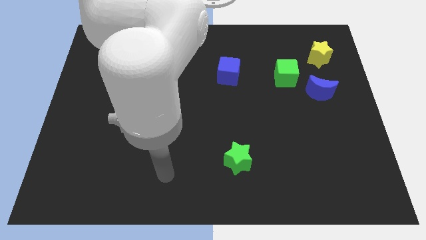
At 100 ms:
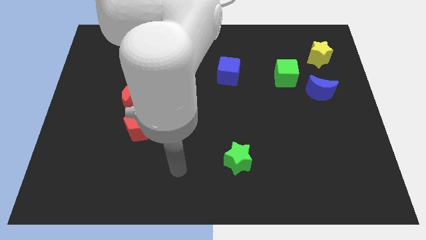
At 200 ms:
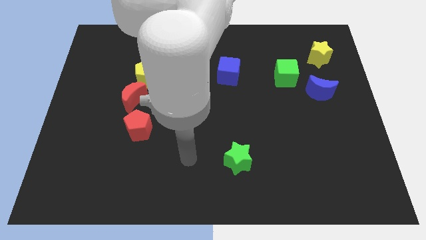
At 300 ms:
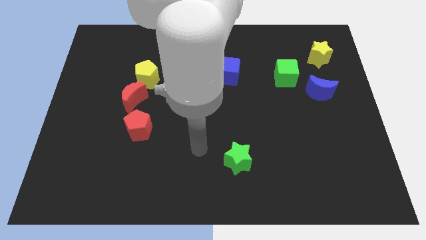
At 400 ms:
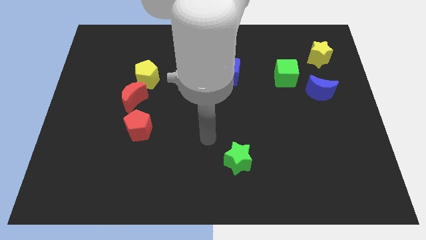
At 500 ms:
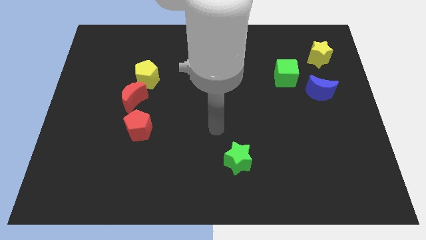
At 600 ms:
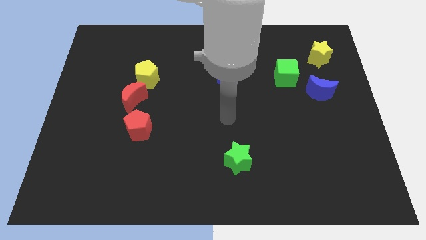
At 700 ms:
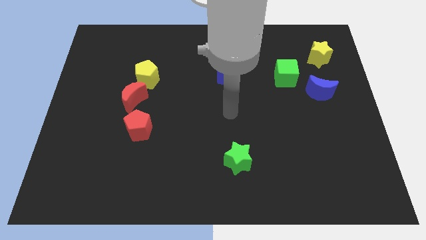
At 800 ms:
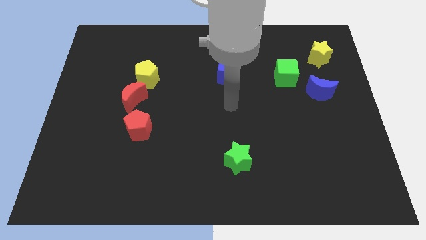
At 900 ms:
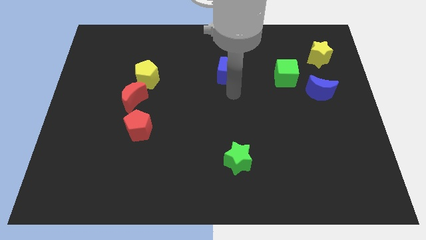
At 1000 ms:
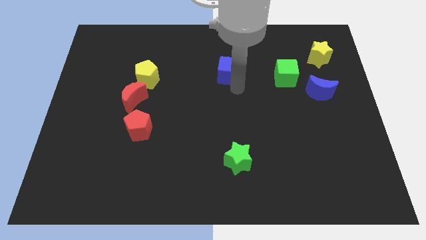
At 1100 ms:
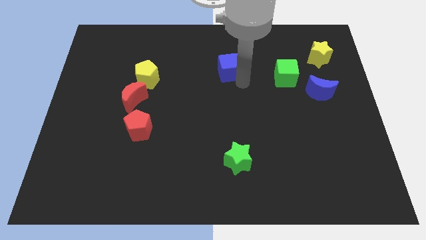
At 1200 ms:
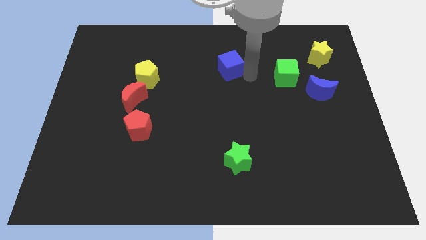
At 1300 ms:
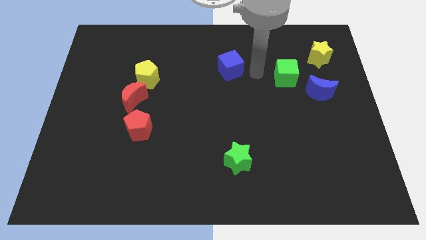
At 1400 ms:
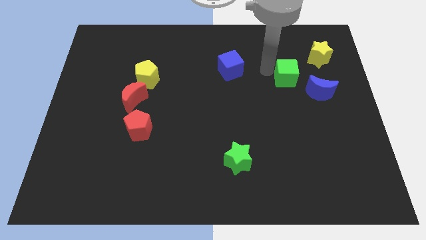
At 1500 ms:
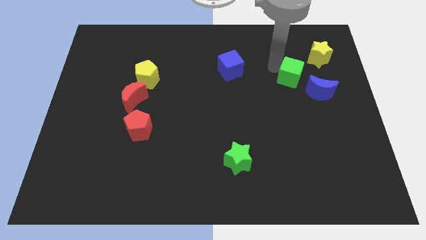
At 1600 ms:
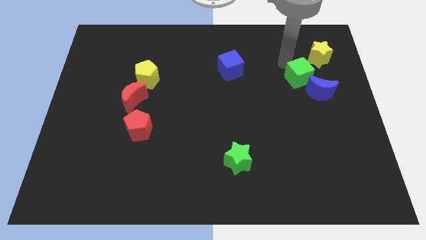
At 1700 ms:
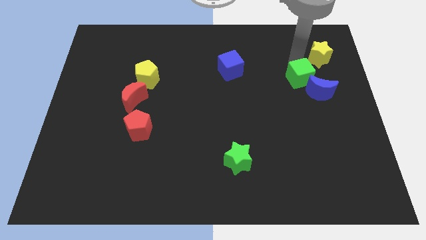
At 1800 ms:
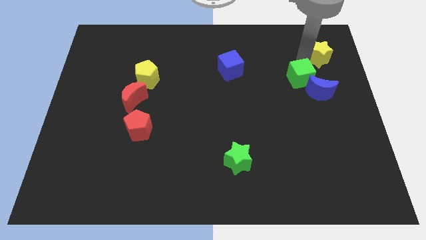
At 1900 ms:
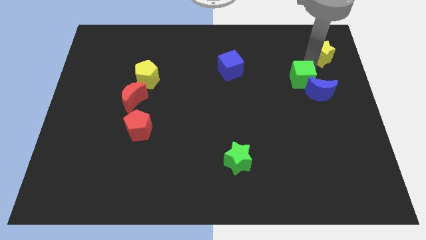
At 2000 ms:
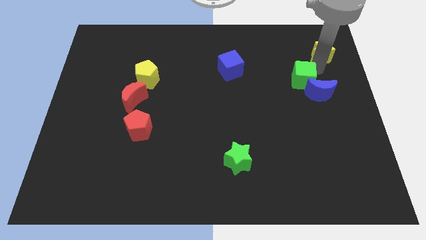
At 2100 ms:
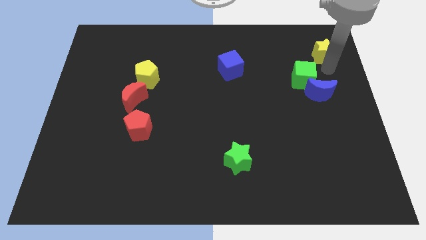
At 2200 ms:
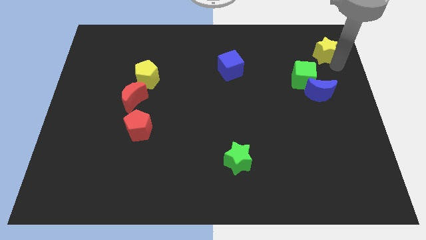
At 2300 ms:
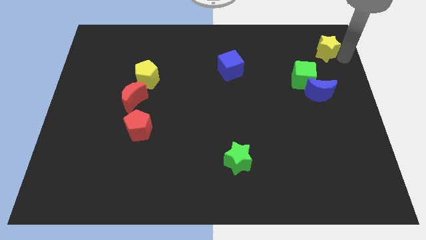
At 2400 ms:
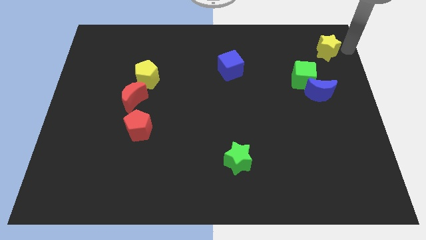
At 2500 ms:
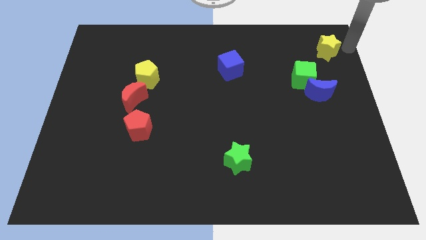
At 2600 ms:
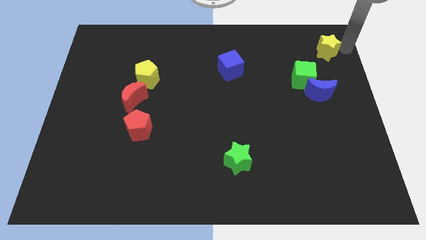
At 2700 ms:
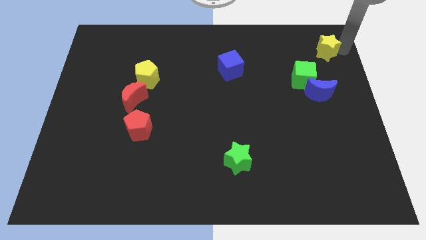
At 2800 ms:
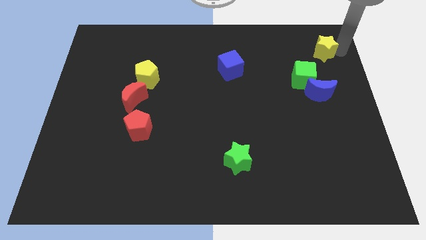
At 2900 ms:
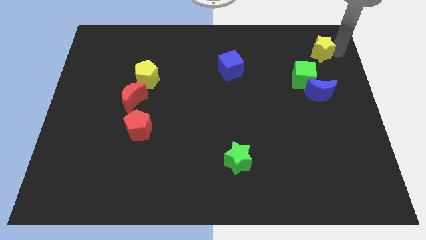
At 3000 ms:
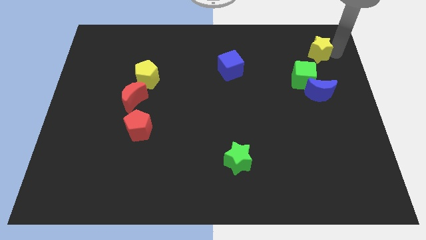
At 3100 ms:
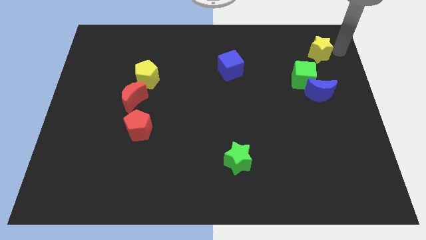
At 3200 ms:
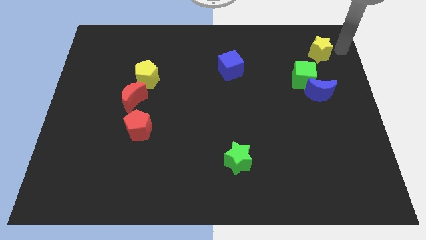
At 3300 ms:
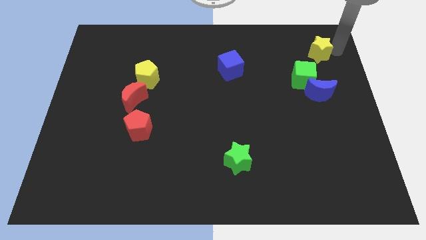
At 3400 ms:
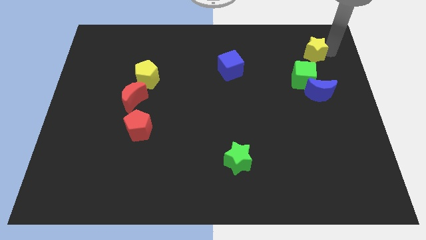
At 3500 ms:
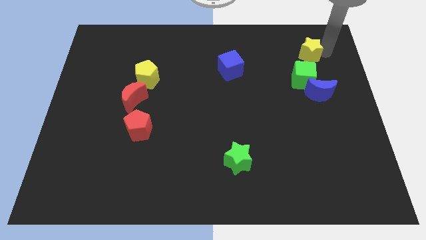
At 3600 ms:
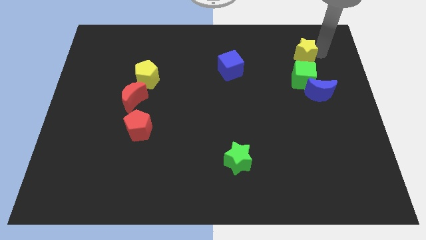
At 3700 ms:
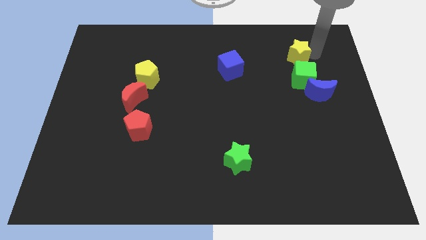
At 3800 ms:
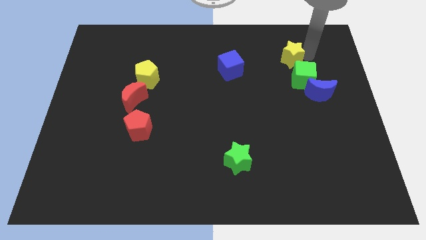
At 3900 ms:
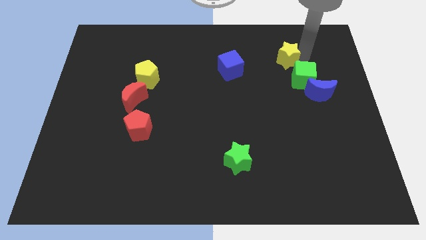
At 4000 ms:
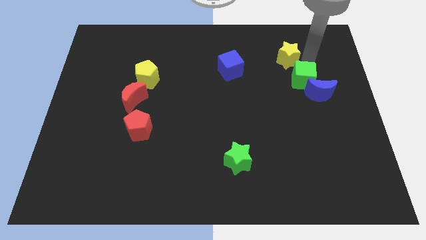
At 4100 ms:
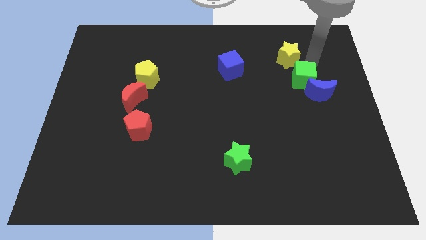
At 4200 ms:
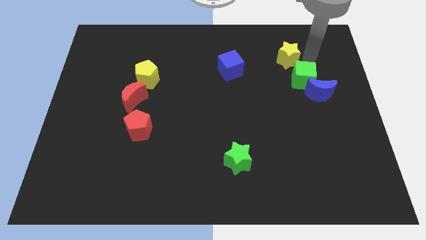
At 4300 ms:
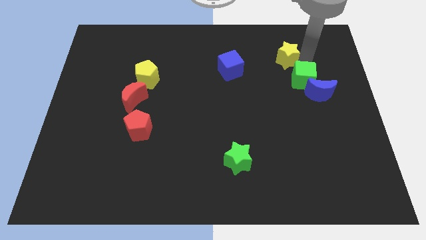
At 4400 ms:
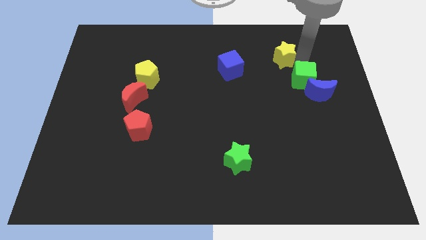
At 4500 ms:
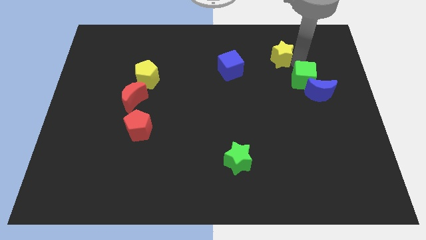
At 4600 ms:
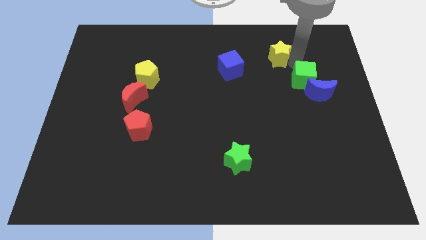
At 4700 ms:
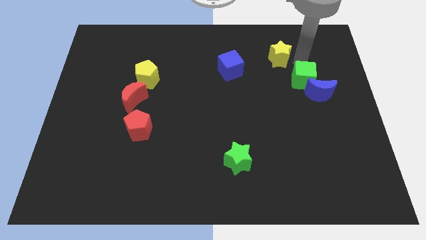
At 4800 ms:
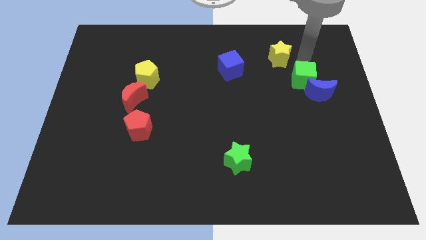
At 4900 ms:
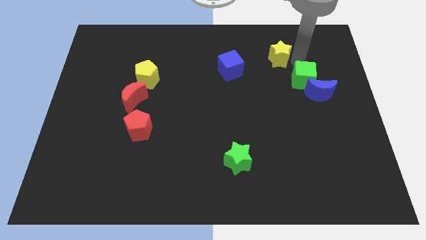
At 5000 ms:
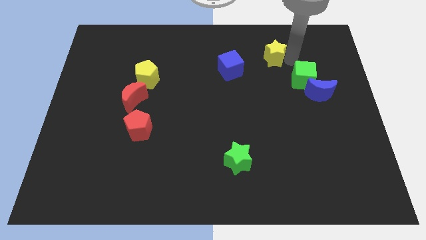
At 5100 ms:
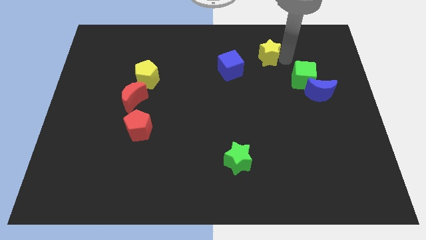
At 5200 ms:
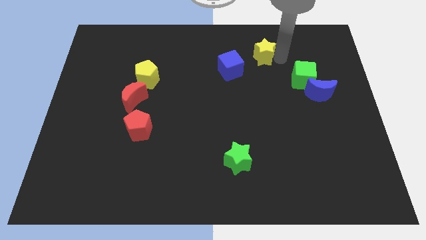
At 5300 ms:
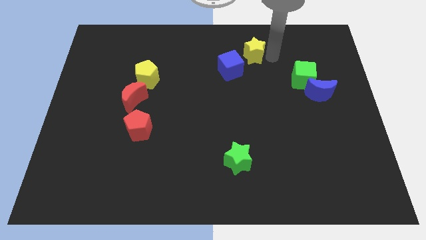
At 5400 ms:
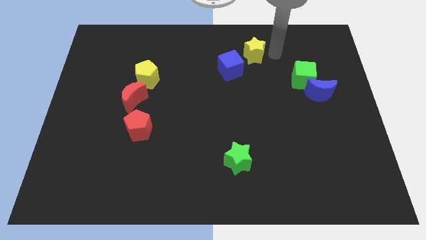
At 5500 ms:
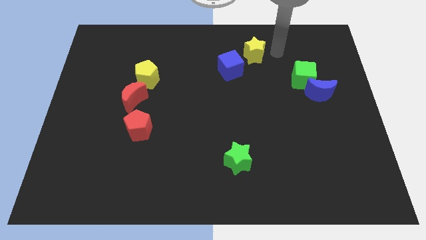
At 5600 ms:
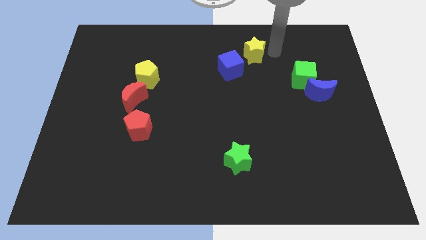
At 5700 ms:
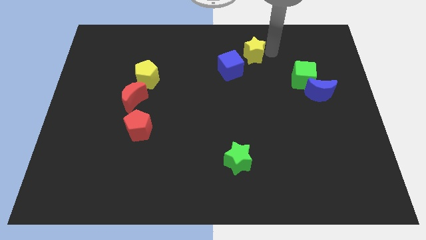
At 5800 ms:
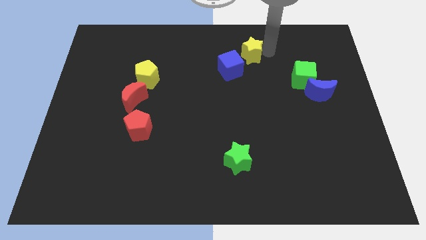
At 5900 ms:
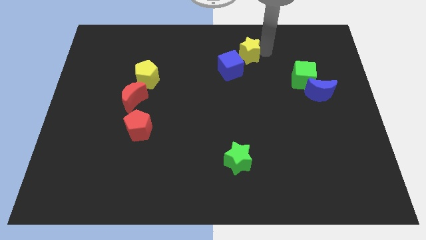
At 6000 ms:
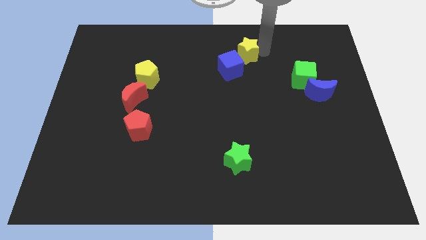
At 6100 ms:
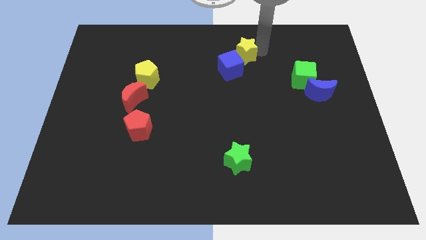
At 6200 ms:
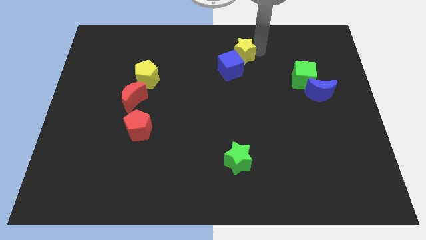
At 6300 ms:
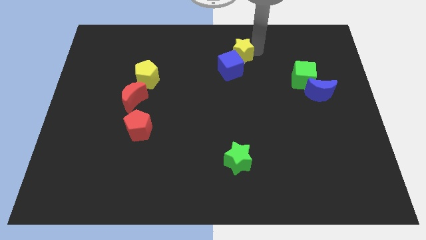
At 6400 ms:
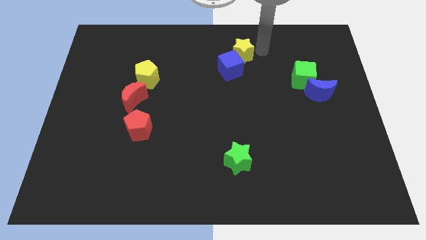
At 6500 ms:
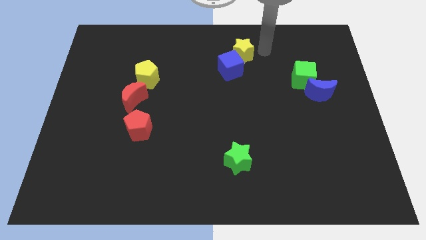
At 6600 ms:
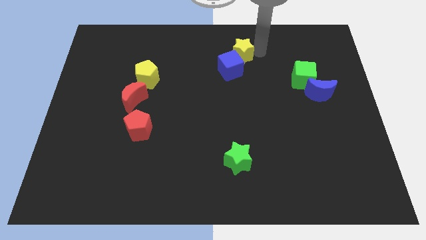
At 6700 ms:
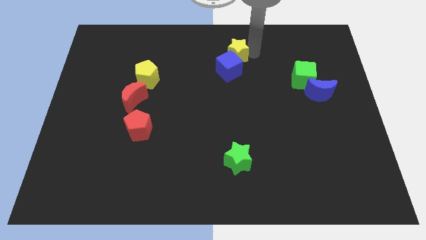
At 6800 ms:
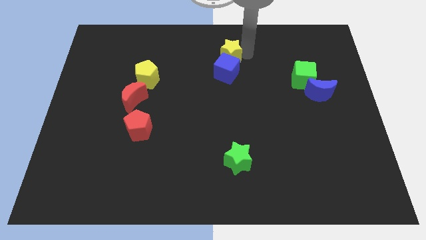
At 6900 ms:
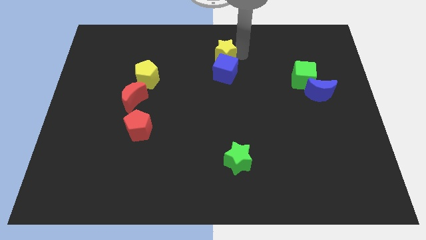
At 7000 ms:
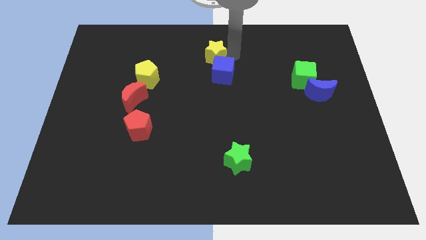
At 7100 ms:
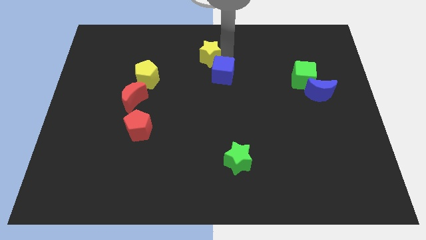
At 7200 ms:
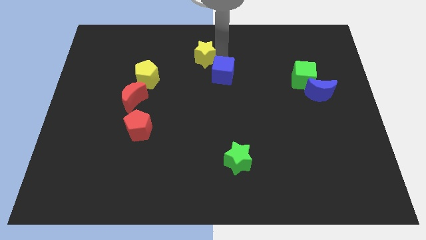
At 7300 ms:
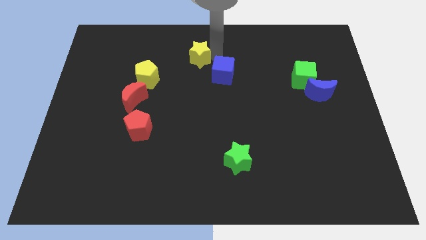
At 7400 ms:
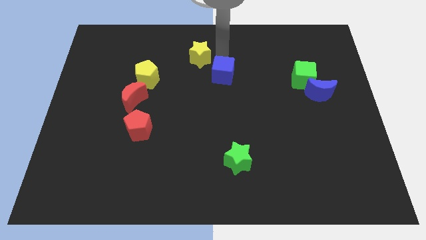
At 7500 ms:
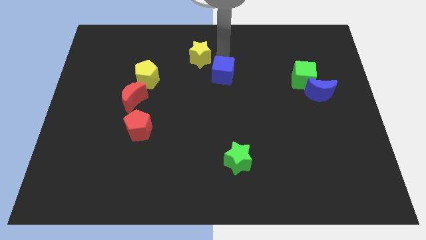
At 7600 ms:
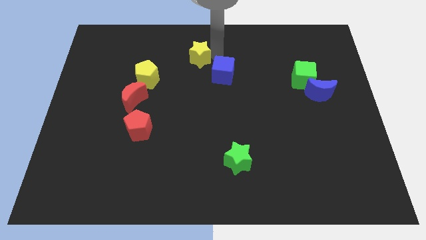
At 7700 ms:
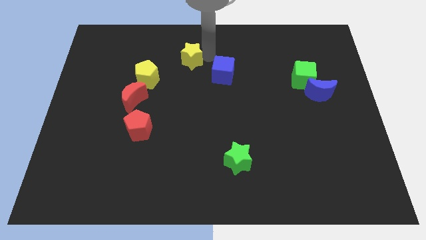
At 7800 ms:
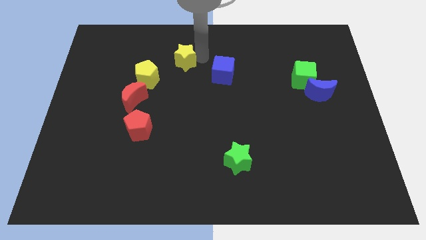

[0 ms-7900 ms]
put the yellow star to the top right of the yellow pentagon
